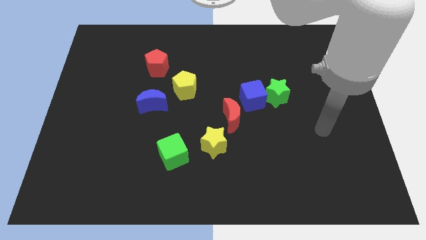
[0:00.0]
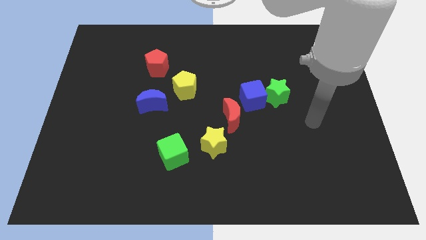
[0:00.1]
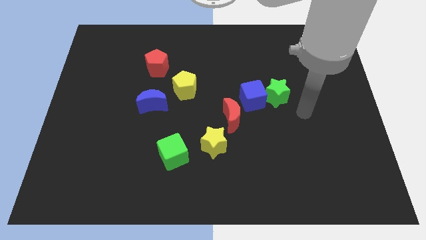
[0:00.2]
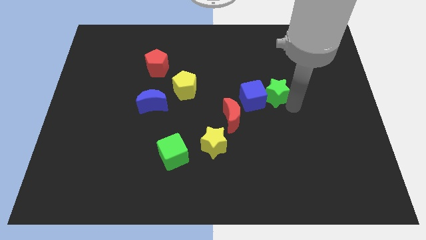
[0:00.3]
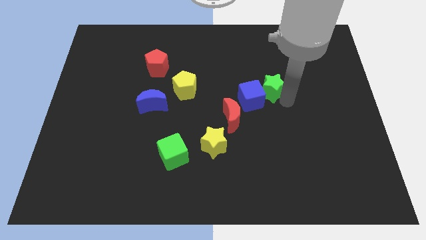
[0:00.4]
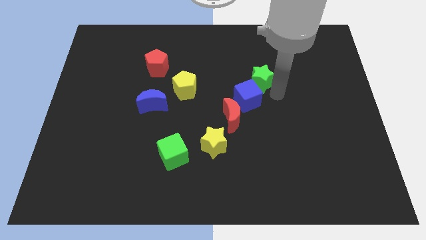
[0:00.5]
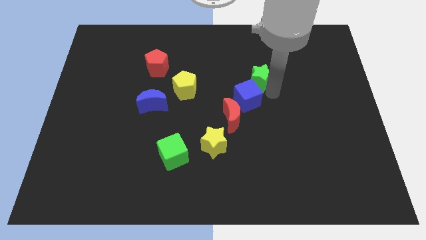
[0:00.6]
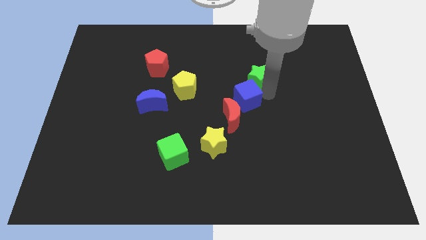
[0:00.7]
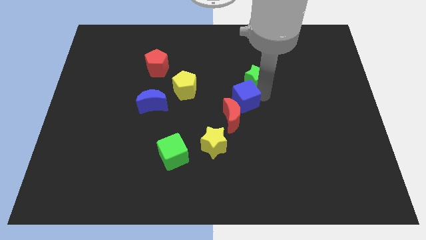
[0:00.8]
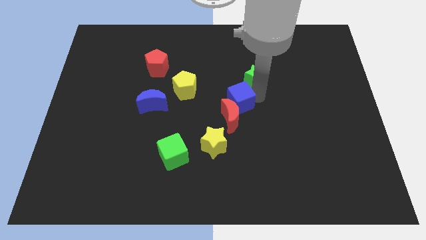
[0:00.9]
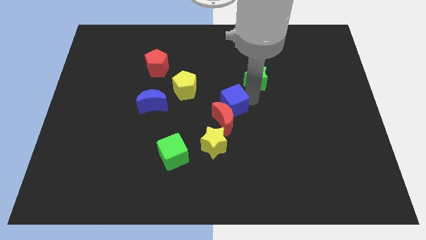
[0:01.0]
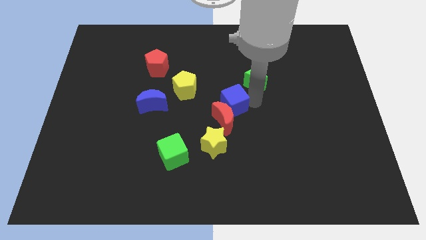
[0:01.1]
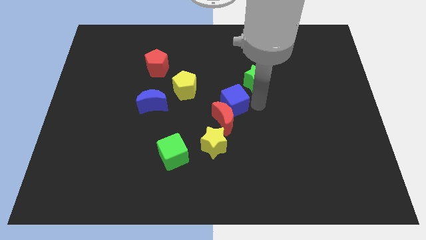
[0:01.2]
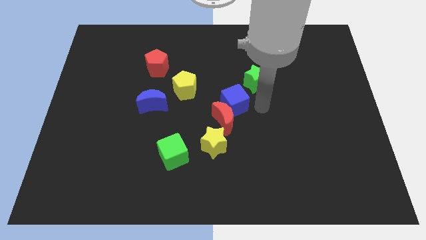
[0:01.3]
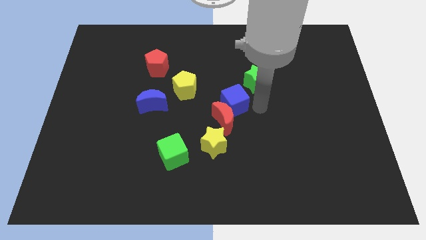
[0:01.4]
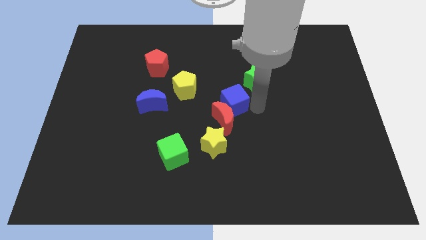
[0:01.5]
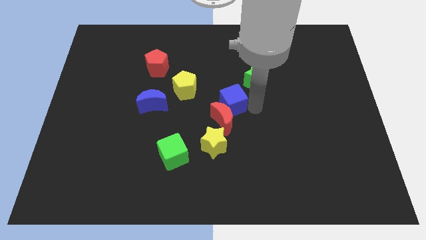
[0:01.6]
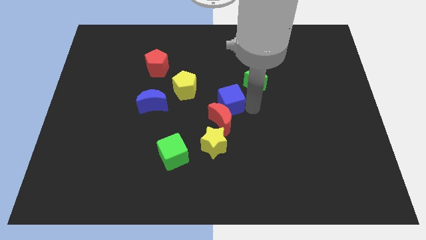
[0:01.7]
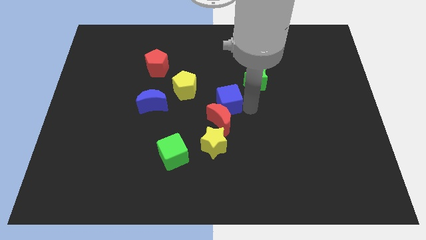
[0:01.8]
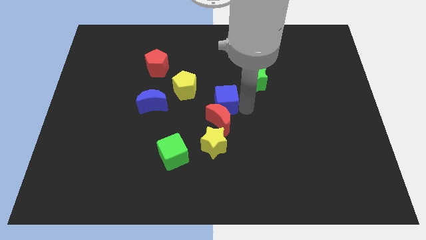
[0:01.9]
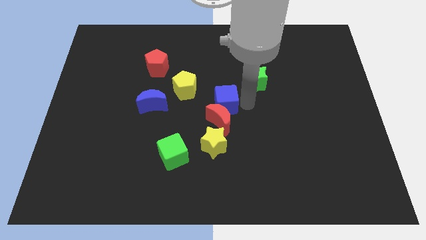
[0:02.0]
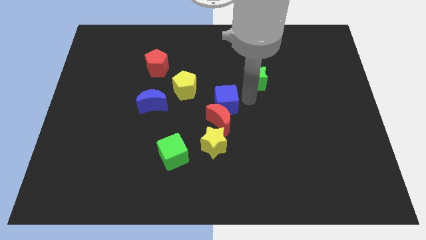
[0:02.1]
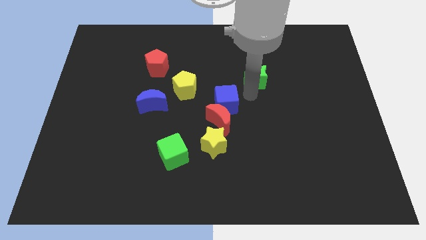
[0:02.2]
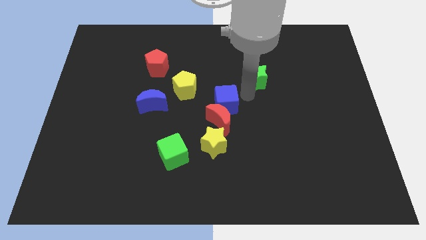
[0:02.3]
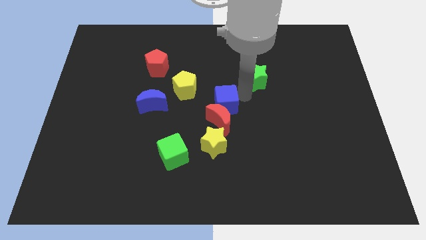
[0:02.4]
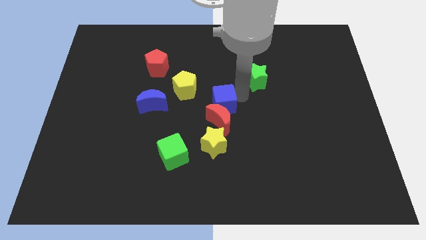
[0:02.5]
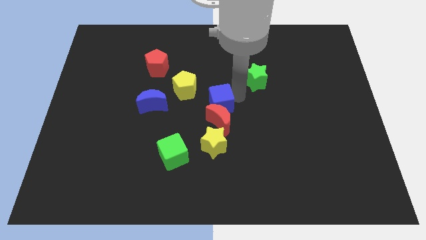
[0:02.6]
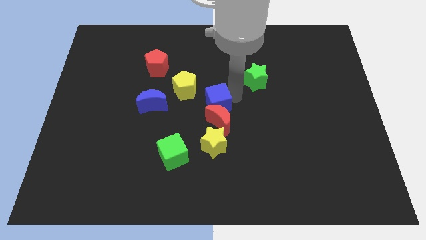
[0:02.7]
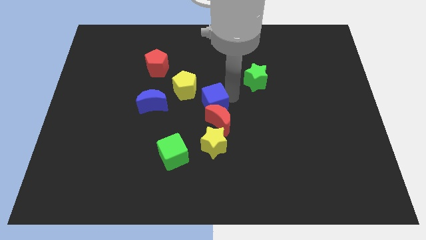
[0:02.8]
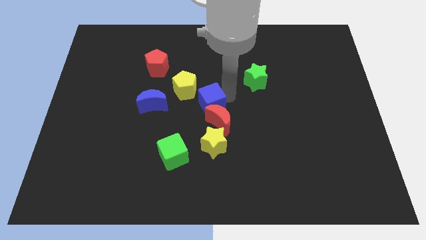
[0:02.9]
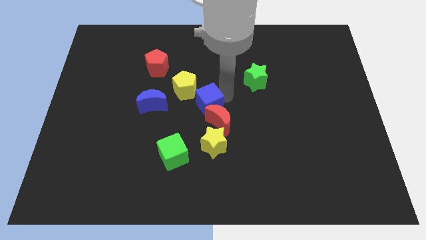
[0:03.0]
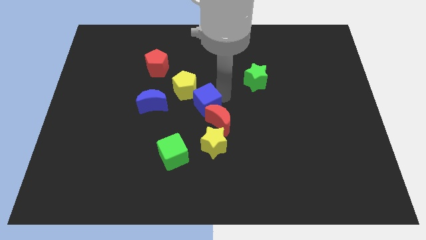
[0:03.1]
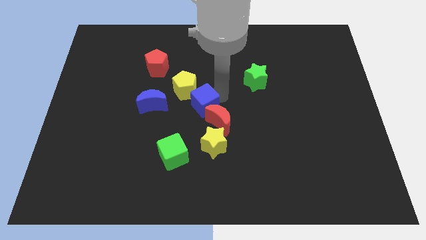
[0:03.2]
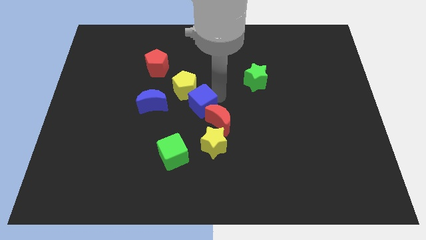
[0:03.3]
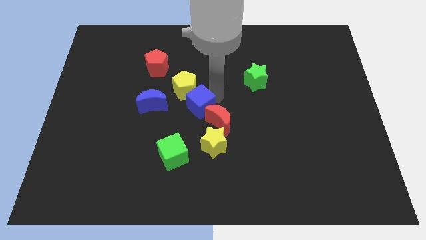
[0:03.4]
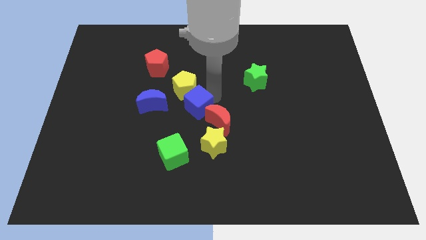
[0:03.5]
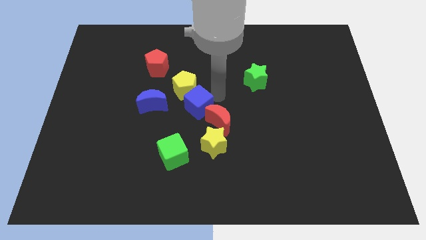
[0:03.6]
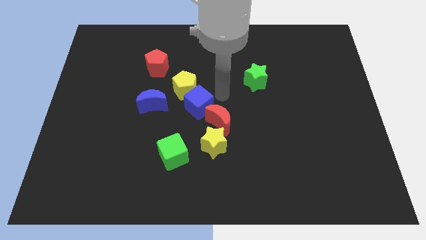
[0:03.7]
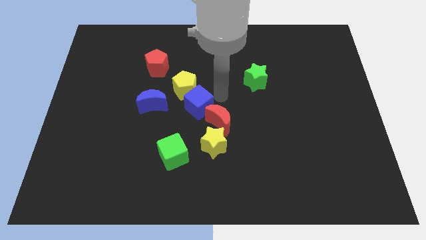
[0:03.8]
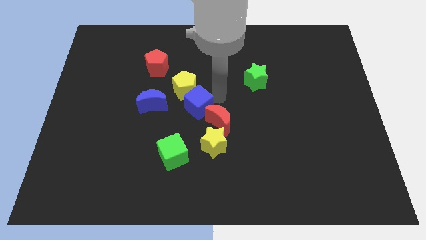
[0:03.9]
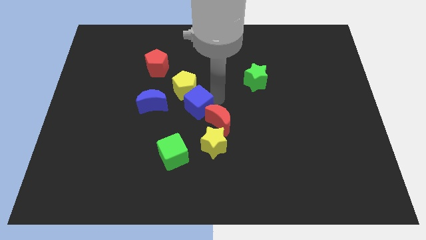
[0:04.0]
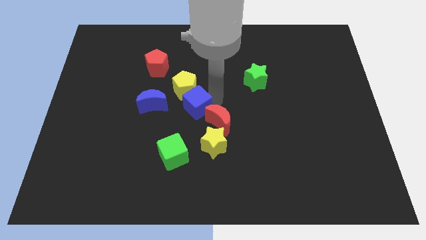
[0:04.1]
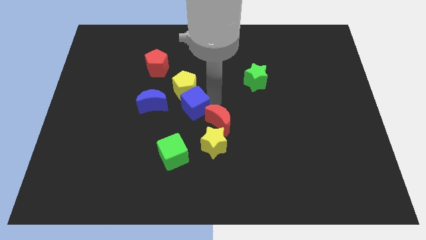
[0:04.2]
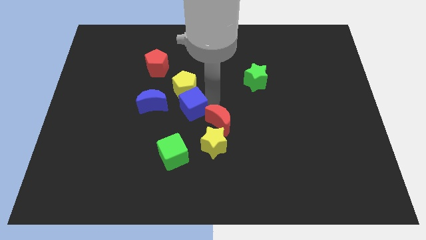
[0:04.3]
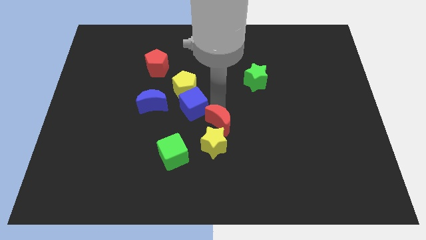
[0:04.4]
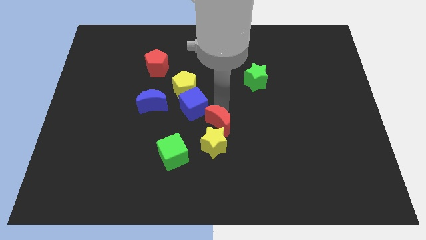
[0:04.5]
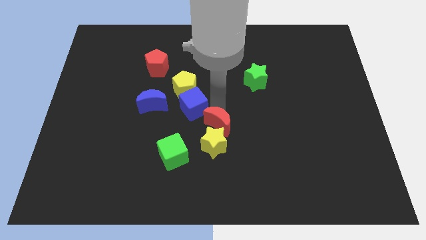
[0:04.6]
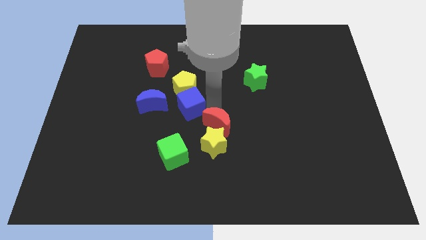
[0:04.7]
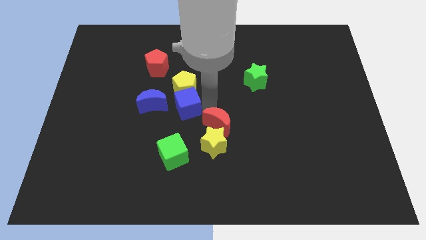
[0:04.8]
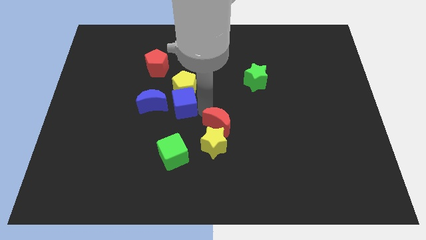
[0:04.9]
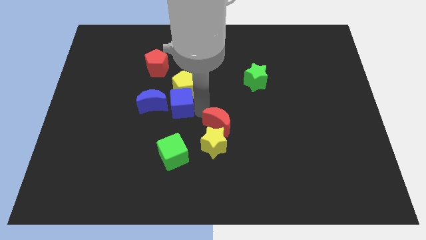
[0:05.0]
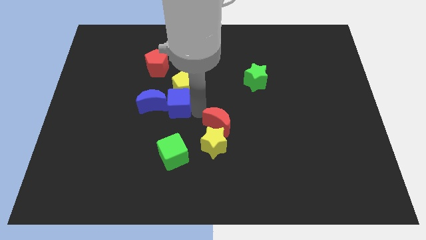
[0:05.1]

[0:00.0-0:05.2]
move the blue cube close to the blue moon

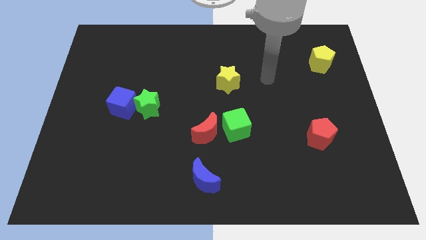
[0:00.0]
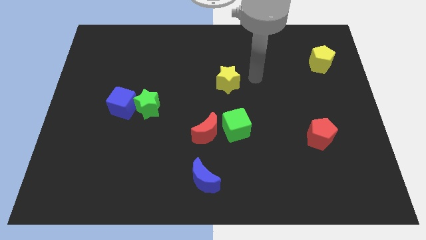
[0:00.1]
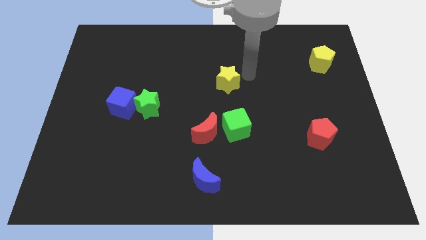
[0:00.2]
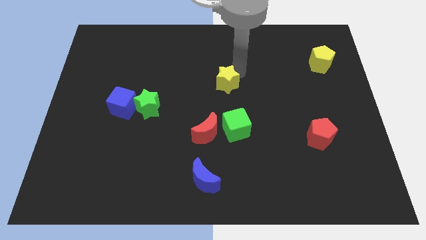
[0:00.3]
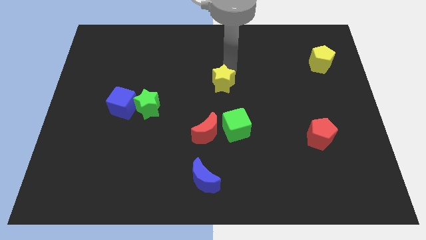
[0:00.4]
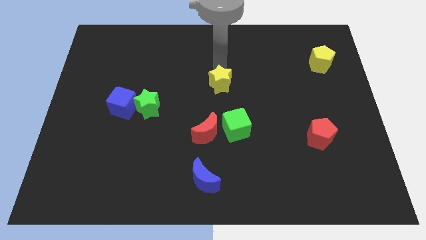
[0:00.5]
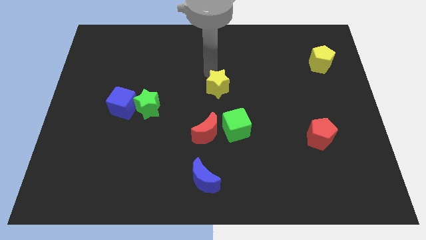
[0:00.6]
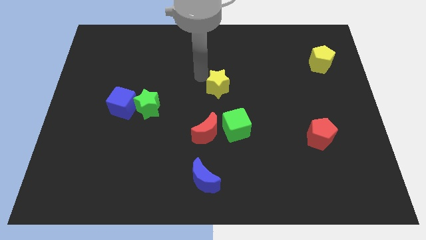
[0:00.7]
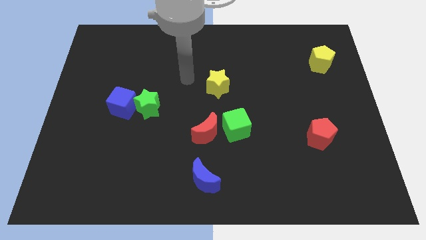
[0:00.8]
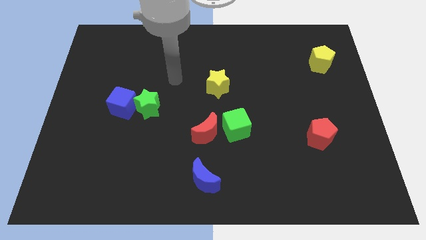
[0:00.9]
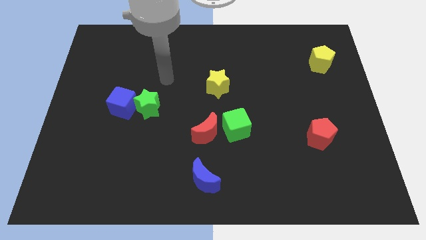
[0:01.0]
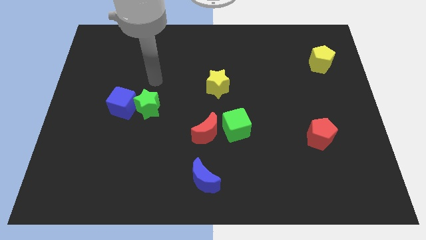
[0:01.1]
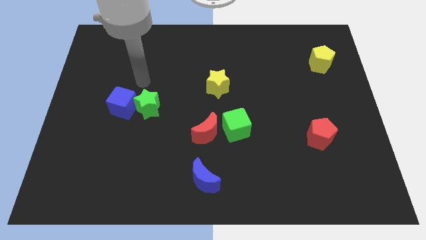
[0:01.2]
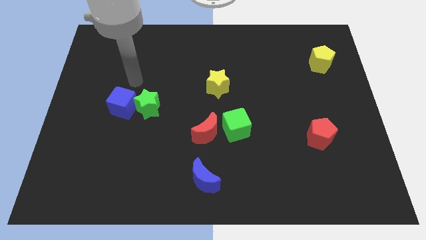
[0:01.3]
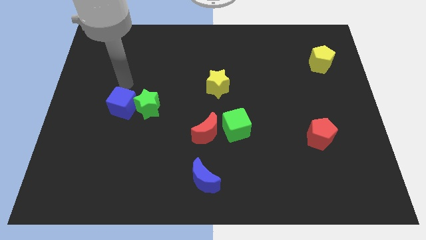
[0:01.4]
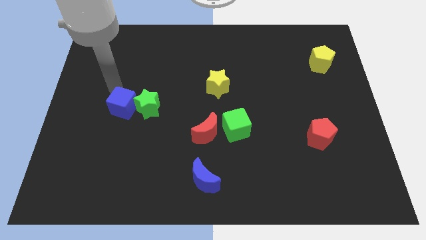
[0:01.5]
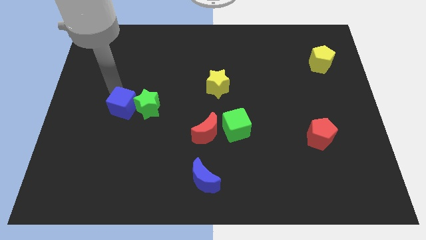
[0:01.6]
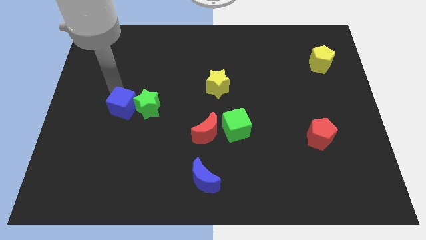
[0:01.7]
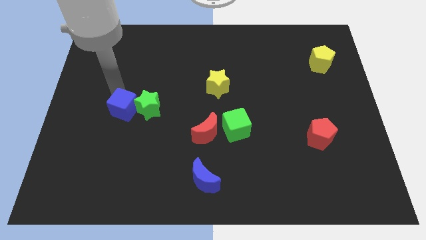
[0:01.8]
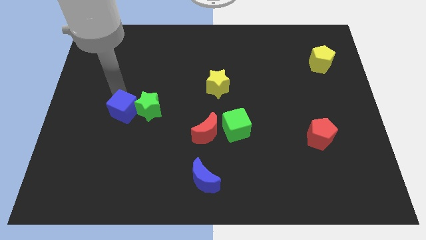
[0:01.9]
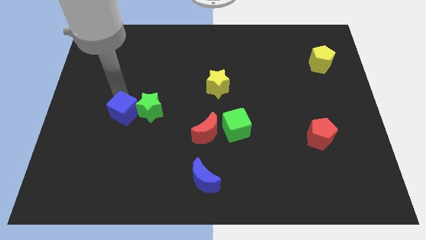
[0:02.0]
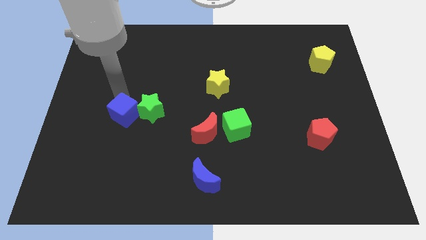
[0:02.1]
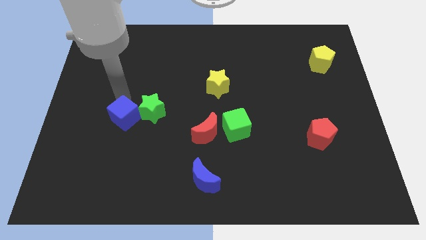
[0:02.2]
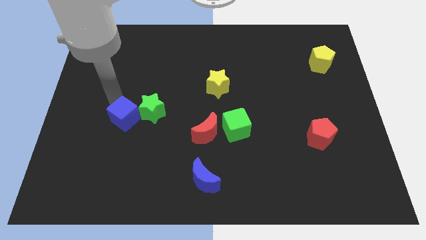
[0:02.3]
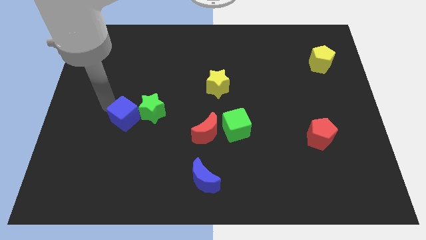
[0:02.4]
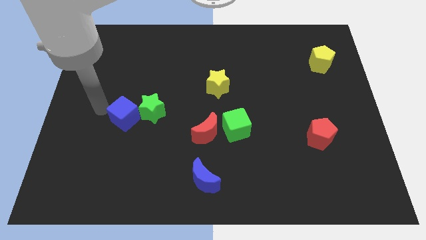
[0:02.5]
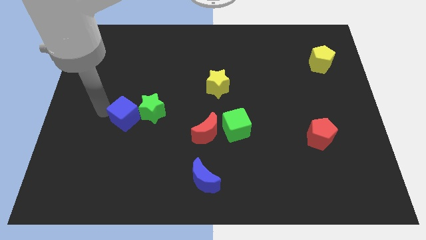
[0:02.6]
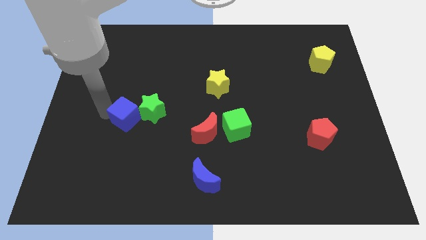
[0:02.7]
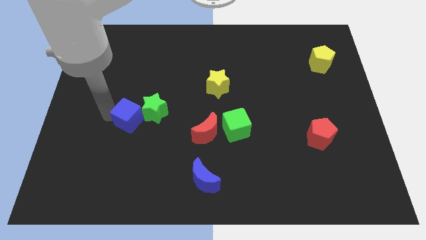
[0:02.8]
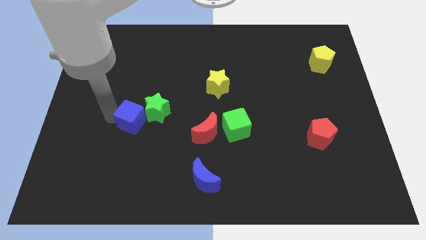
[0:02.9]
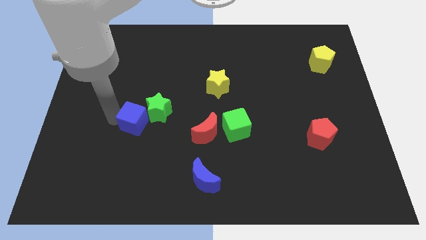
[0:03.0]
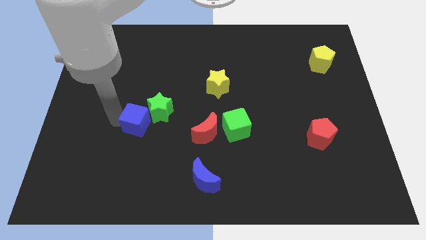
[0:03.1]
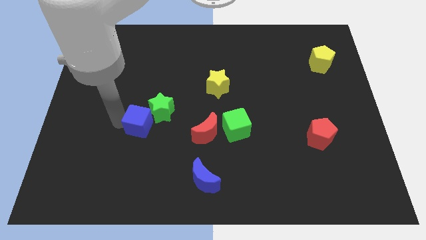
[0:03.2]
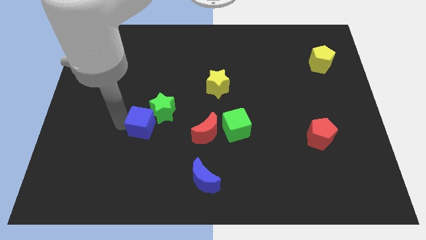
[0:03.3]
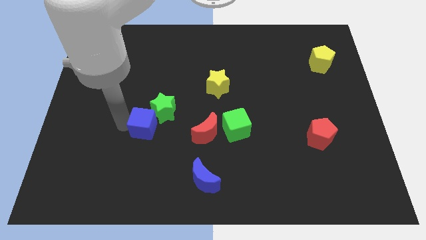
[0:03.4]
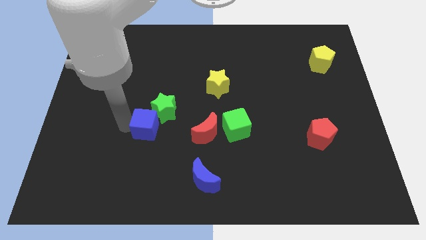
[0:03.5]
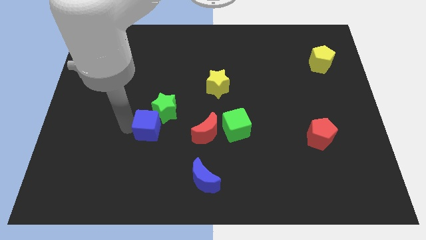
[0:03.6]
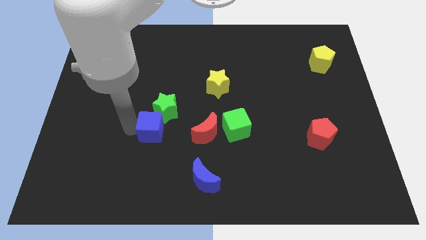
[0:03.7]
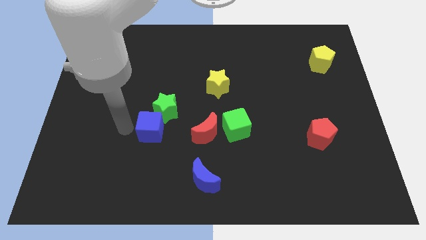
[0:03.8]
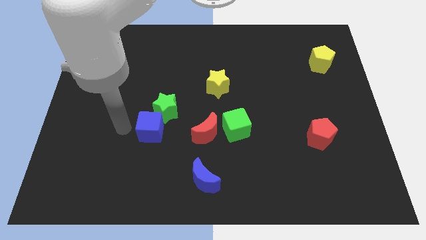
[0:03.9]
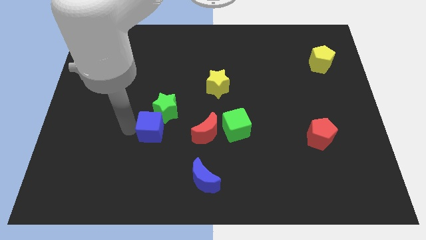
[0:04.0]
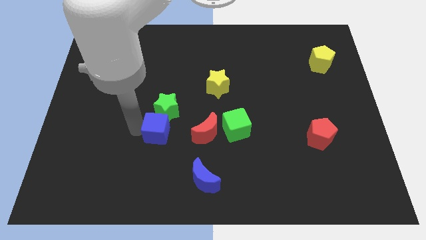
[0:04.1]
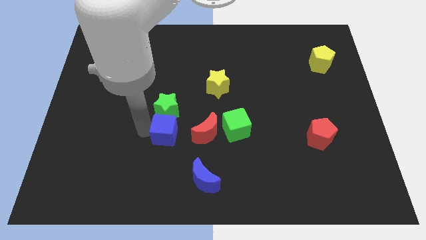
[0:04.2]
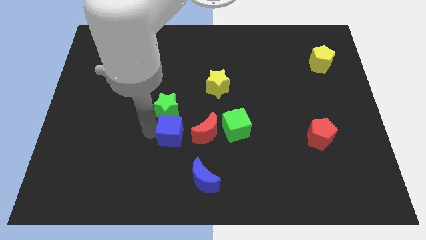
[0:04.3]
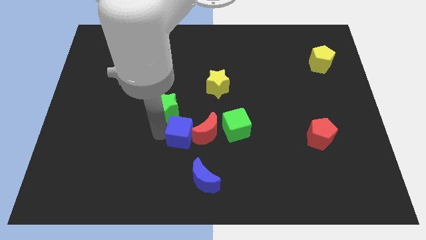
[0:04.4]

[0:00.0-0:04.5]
push the blue cube next to the red moon
